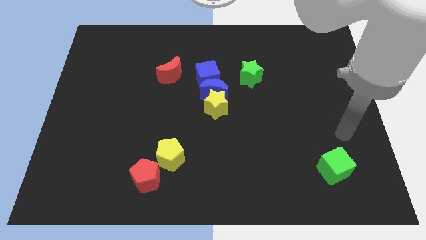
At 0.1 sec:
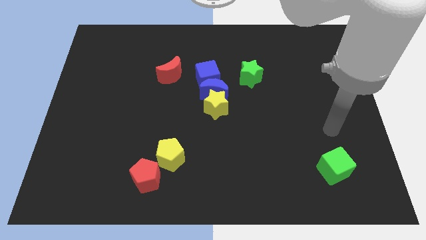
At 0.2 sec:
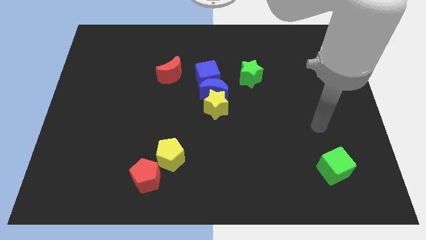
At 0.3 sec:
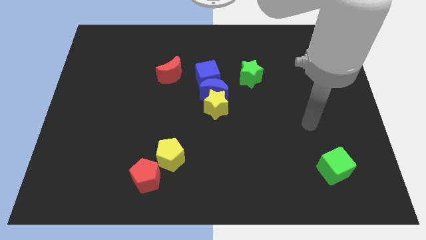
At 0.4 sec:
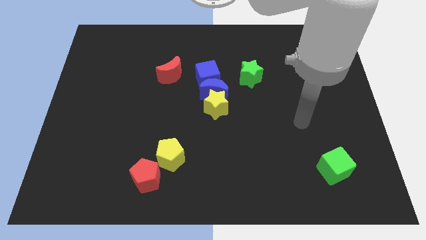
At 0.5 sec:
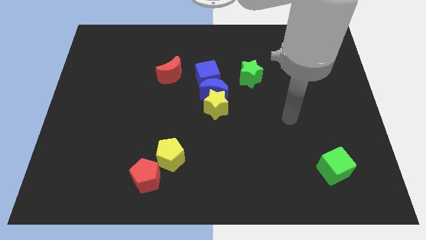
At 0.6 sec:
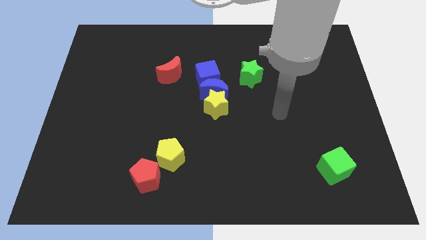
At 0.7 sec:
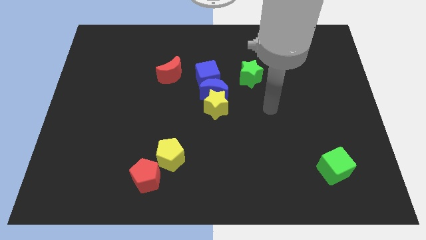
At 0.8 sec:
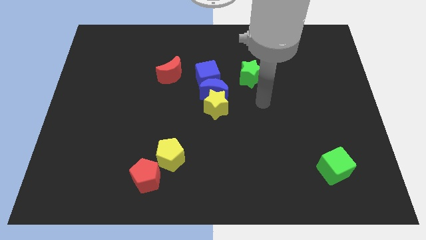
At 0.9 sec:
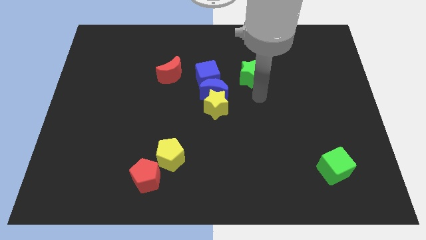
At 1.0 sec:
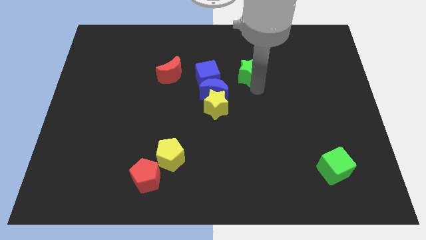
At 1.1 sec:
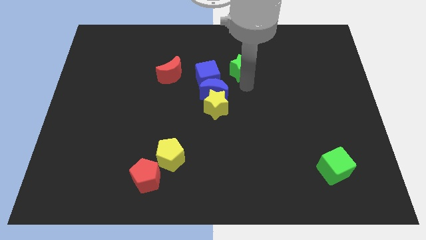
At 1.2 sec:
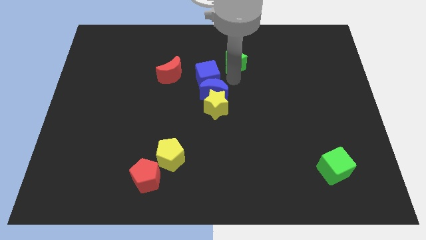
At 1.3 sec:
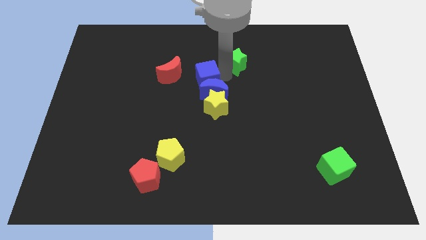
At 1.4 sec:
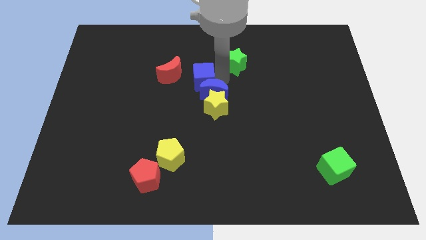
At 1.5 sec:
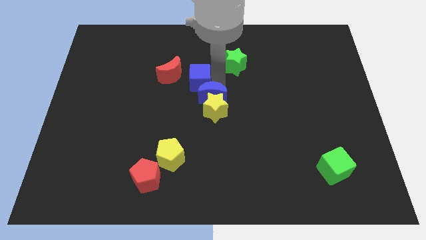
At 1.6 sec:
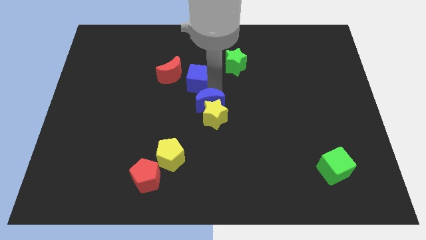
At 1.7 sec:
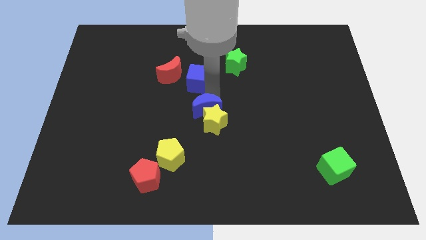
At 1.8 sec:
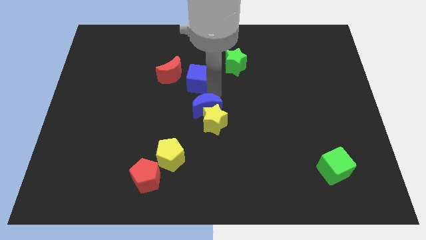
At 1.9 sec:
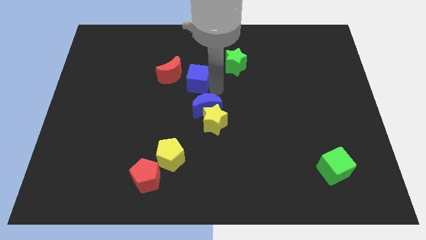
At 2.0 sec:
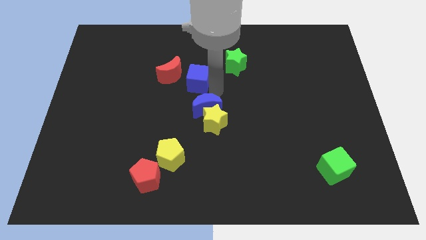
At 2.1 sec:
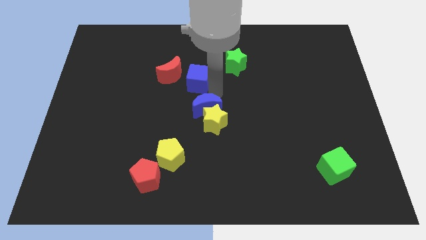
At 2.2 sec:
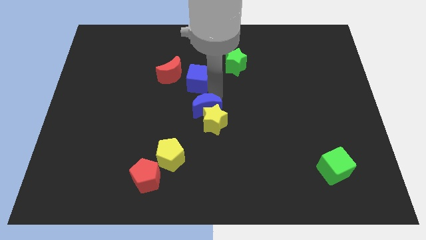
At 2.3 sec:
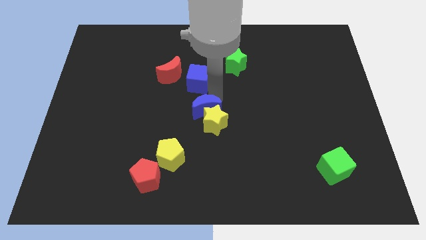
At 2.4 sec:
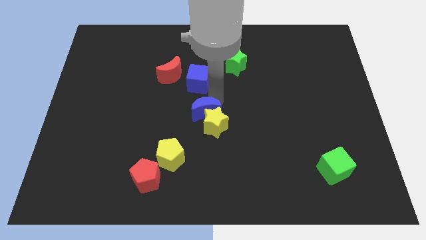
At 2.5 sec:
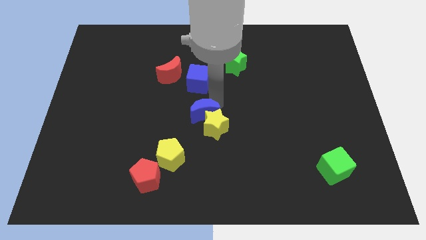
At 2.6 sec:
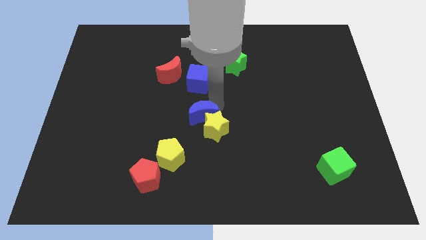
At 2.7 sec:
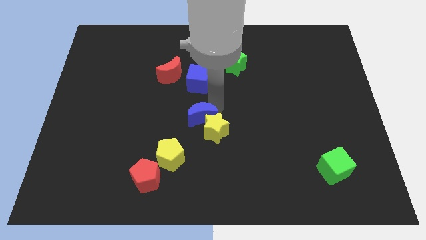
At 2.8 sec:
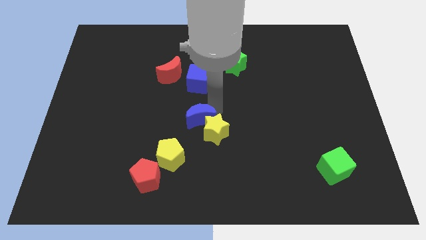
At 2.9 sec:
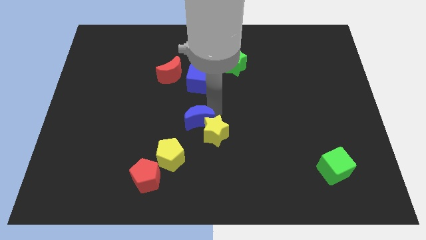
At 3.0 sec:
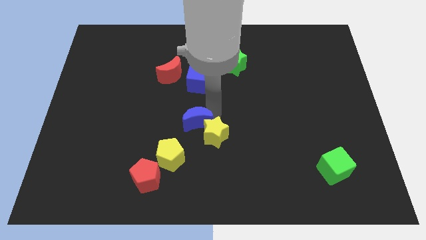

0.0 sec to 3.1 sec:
pull the blue moon apart from the yellow star, blue cube, and green star

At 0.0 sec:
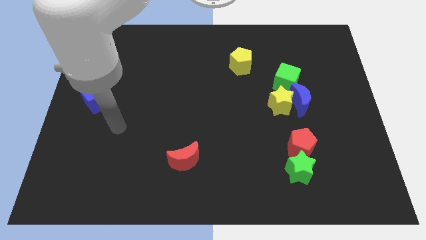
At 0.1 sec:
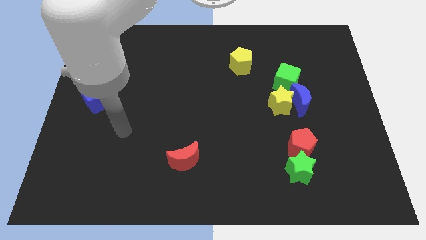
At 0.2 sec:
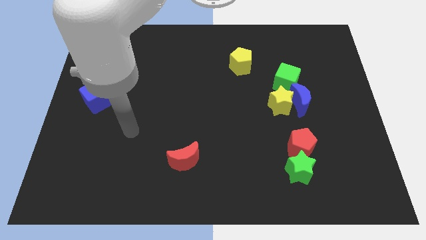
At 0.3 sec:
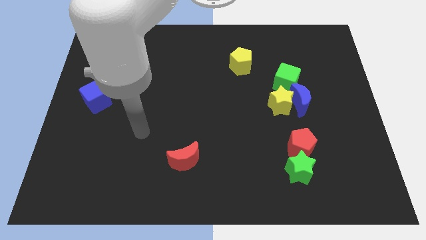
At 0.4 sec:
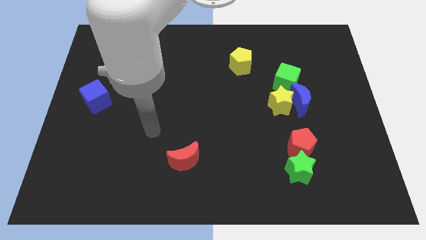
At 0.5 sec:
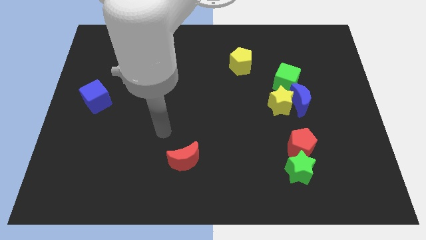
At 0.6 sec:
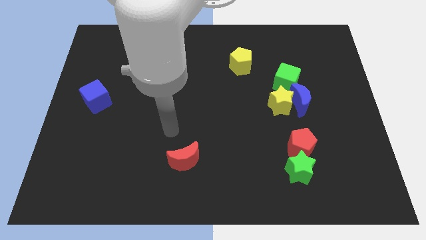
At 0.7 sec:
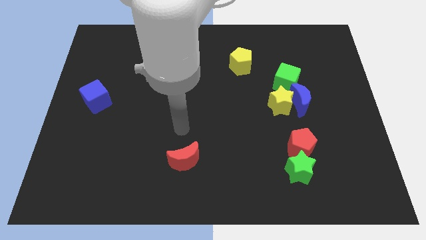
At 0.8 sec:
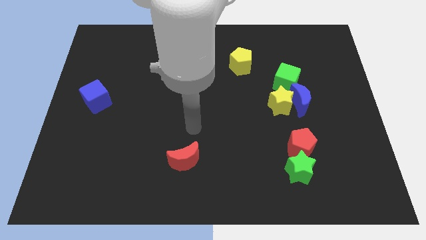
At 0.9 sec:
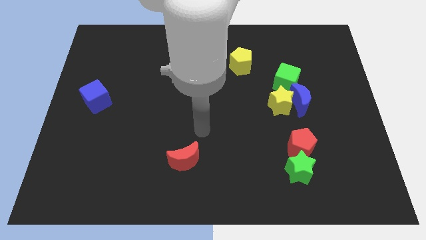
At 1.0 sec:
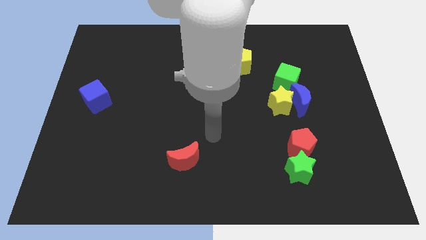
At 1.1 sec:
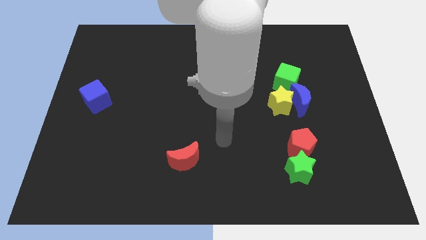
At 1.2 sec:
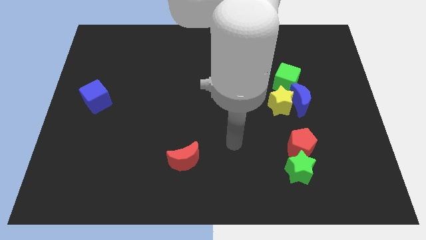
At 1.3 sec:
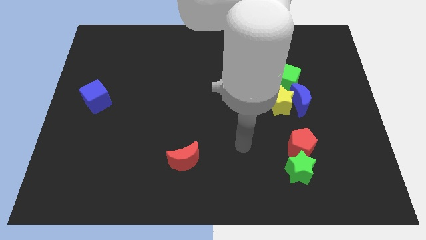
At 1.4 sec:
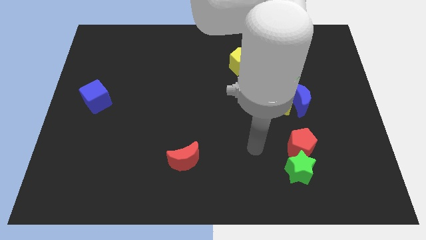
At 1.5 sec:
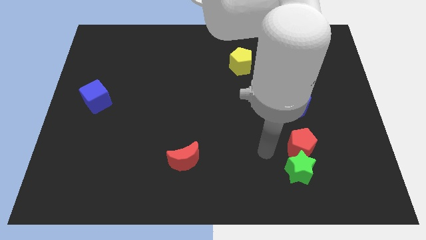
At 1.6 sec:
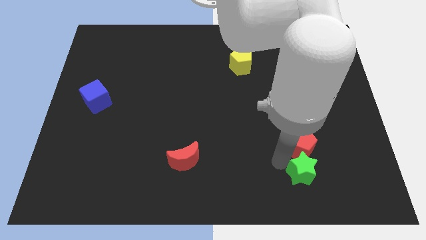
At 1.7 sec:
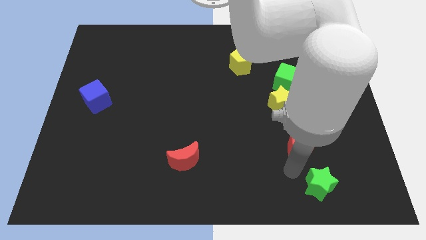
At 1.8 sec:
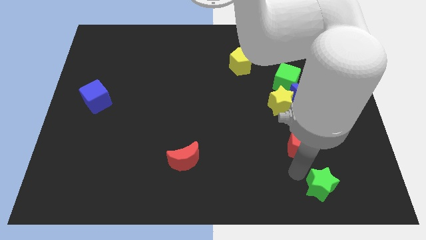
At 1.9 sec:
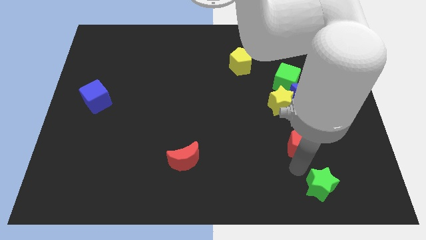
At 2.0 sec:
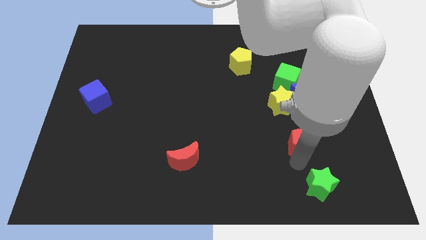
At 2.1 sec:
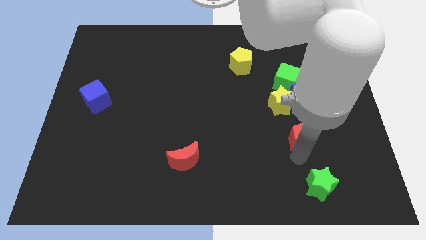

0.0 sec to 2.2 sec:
pull the red pentagon apart from the green star

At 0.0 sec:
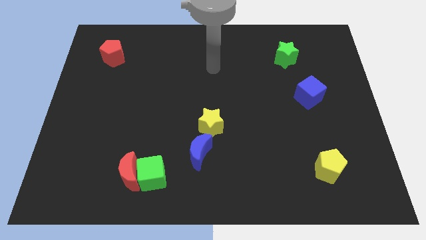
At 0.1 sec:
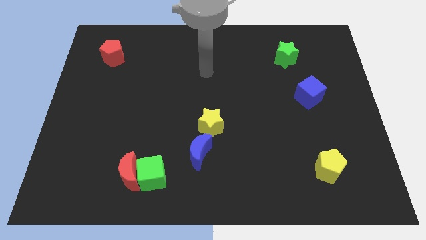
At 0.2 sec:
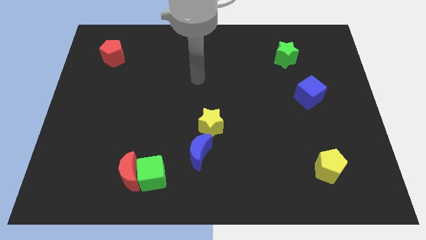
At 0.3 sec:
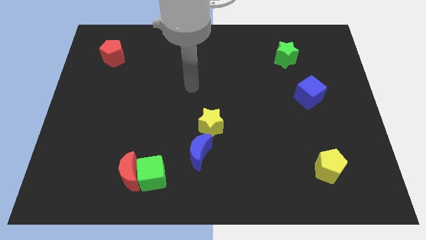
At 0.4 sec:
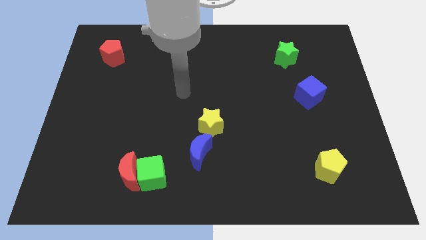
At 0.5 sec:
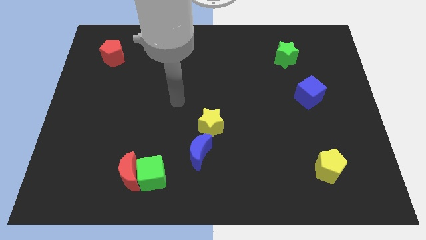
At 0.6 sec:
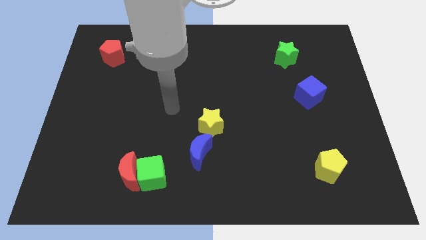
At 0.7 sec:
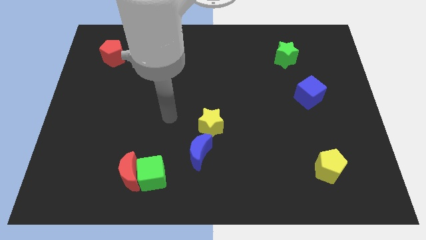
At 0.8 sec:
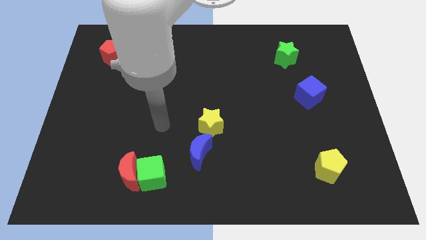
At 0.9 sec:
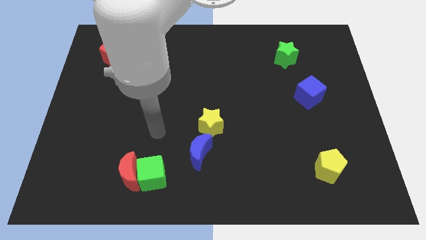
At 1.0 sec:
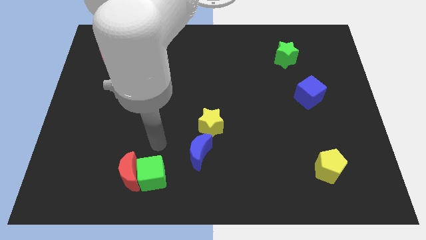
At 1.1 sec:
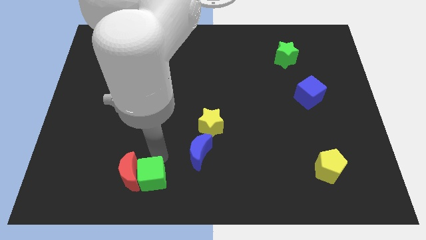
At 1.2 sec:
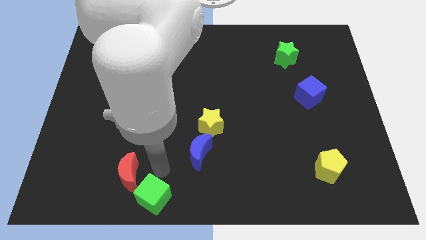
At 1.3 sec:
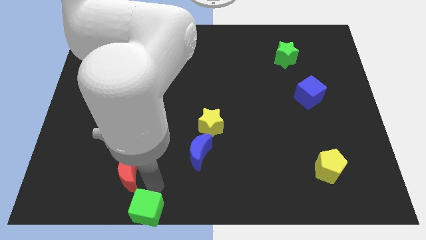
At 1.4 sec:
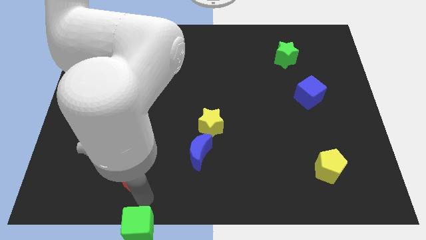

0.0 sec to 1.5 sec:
move the red moon away from the green cube

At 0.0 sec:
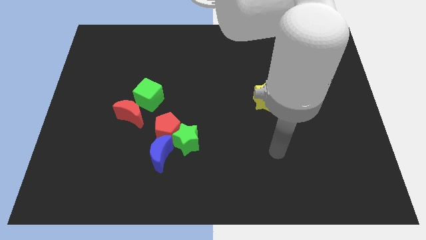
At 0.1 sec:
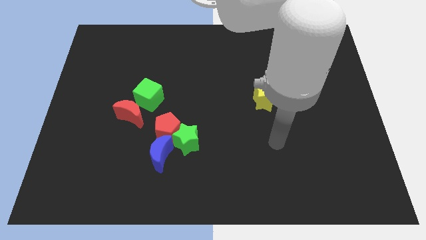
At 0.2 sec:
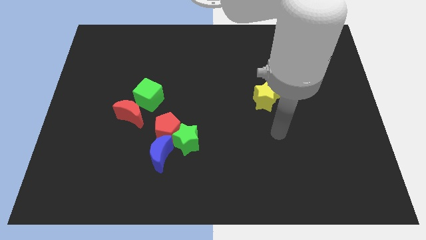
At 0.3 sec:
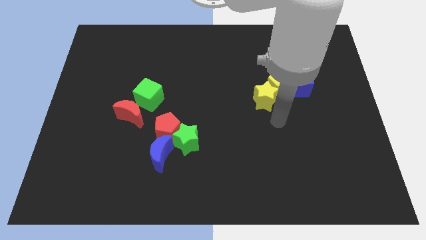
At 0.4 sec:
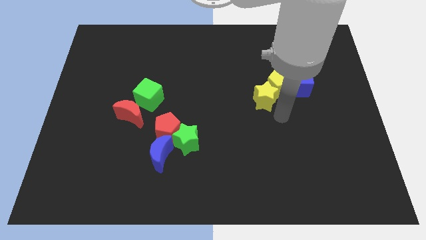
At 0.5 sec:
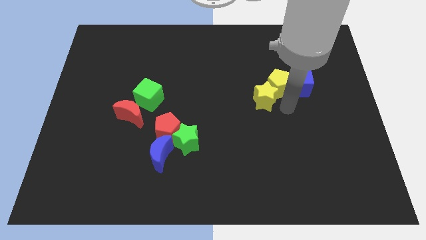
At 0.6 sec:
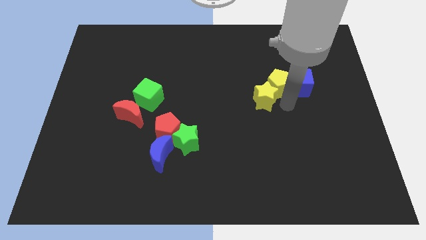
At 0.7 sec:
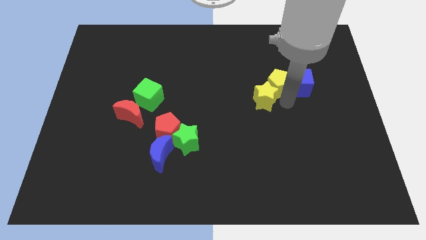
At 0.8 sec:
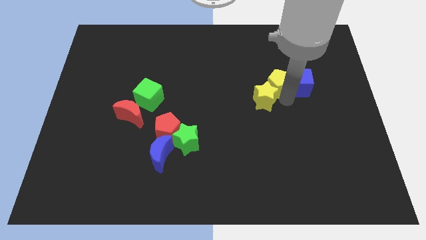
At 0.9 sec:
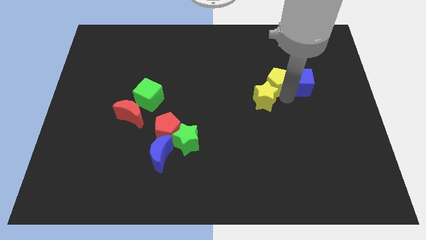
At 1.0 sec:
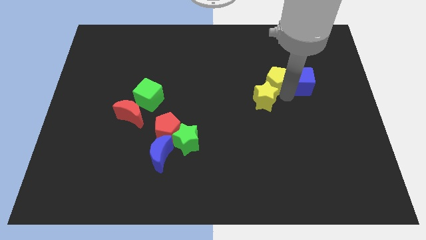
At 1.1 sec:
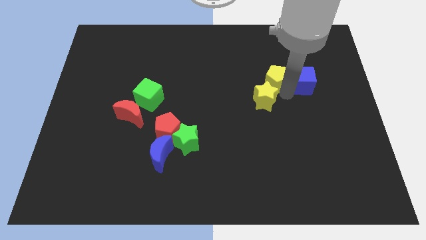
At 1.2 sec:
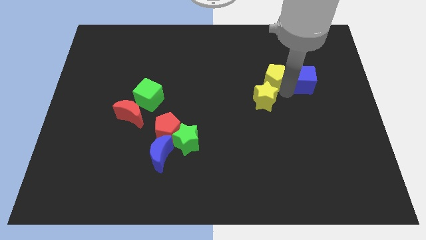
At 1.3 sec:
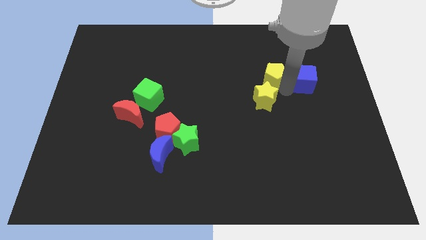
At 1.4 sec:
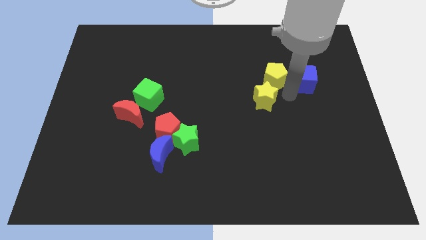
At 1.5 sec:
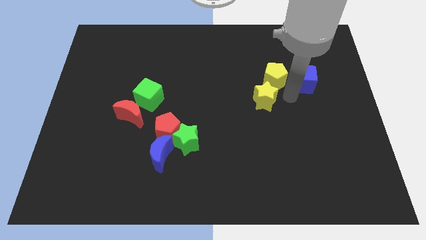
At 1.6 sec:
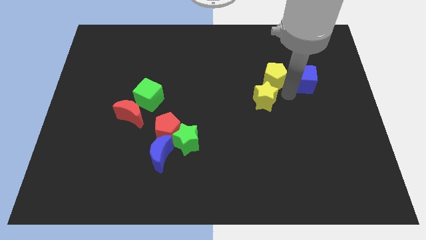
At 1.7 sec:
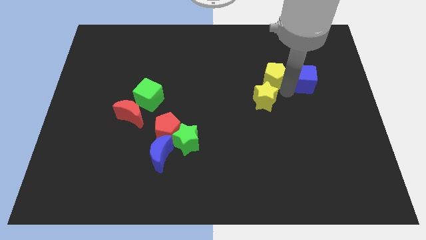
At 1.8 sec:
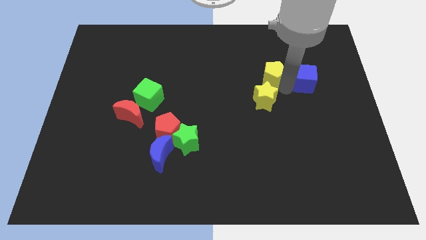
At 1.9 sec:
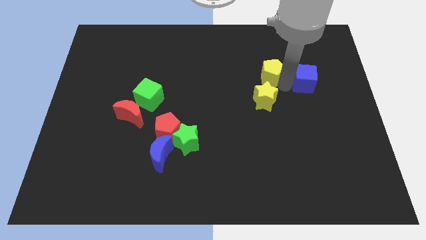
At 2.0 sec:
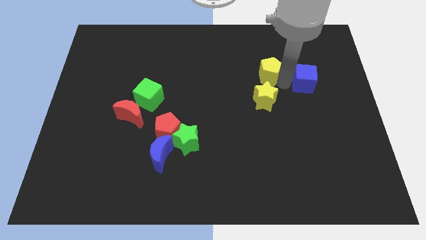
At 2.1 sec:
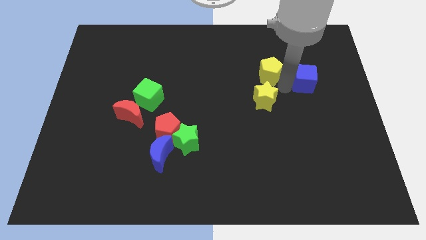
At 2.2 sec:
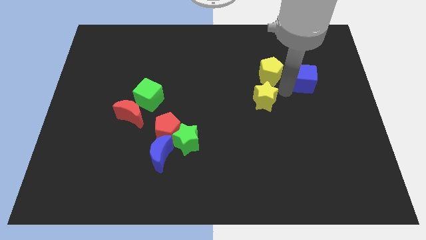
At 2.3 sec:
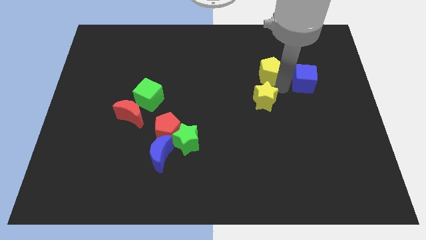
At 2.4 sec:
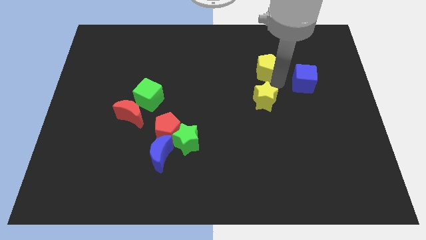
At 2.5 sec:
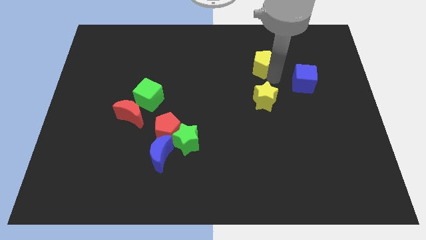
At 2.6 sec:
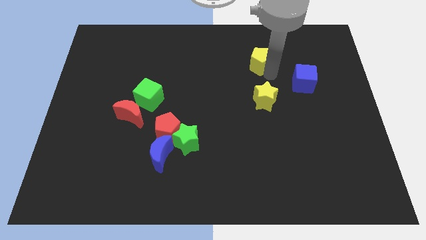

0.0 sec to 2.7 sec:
pull the yellow pentagon apart from the blue cube and yellow star
